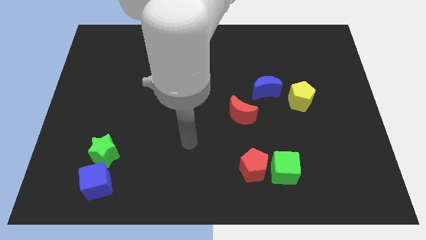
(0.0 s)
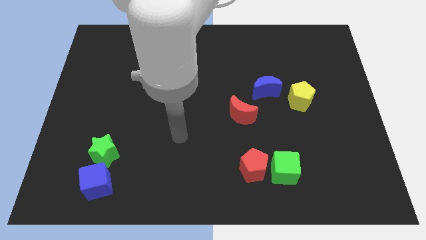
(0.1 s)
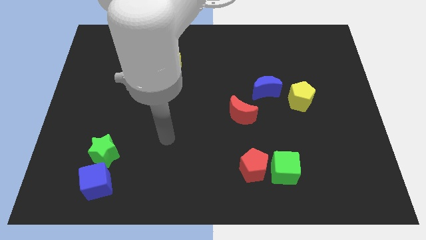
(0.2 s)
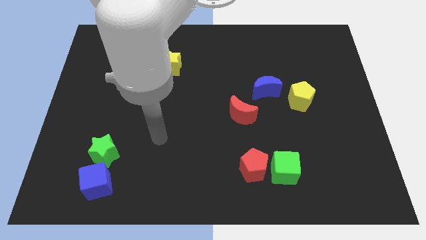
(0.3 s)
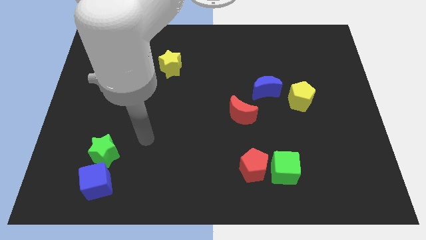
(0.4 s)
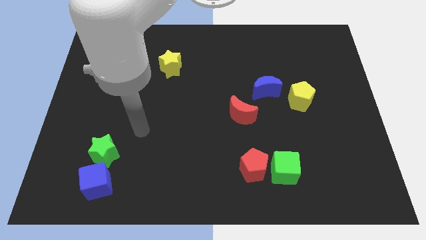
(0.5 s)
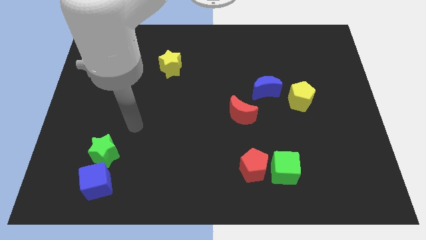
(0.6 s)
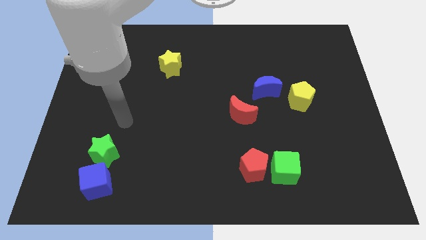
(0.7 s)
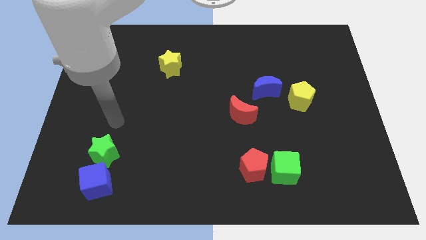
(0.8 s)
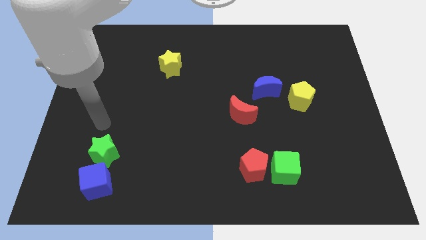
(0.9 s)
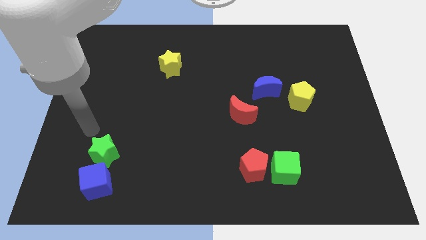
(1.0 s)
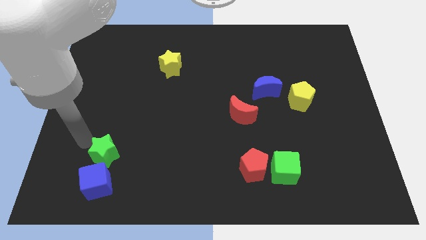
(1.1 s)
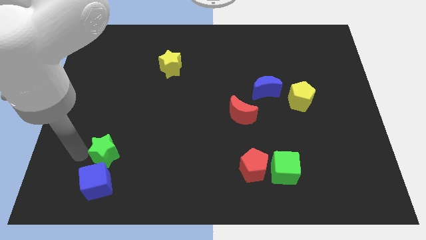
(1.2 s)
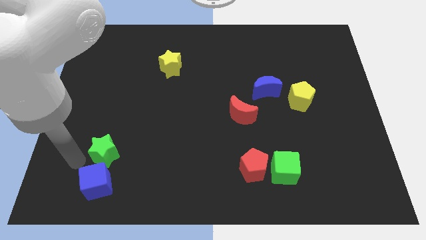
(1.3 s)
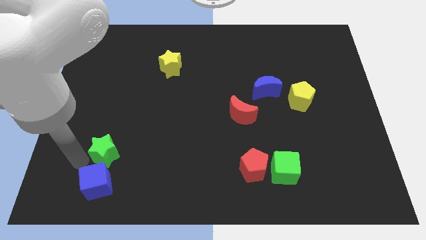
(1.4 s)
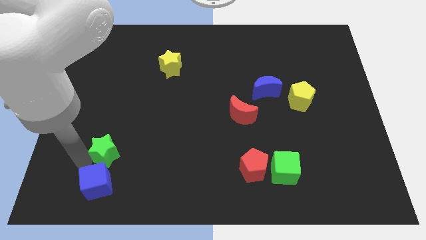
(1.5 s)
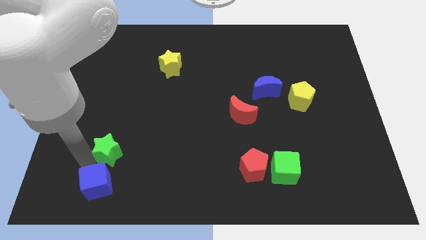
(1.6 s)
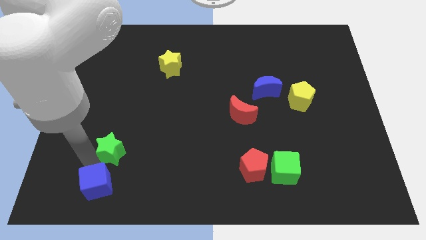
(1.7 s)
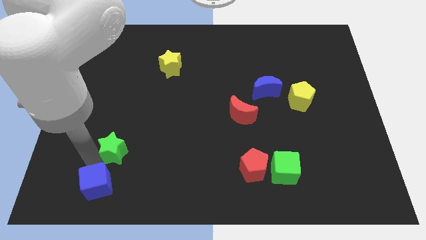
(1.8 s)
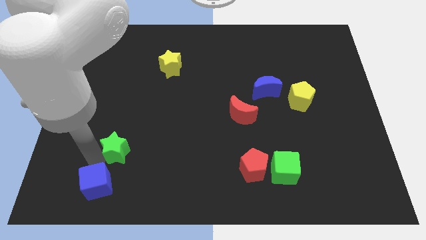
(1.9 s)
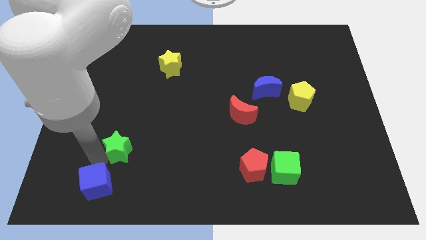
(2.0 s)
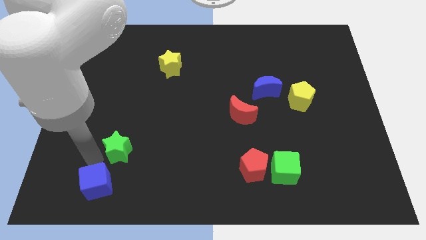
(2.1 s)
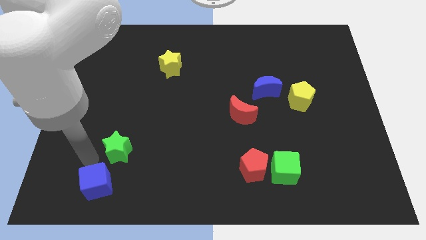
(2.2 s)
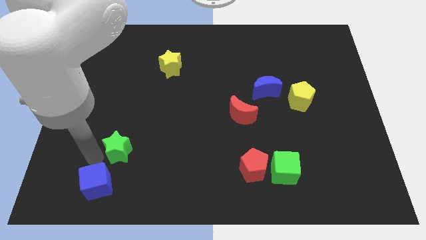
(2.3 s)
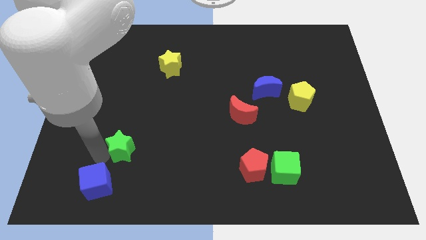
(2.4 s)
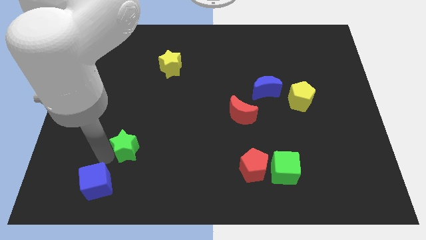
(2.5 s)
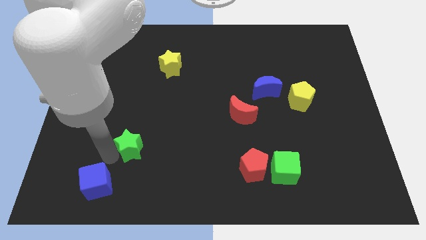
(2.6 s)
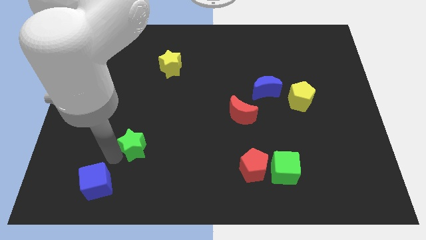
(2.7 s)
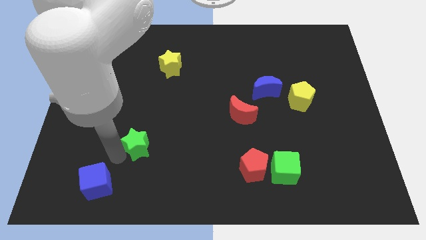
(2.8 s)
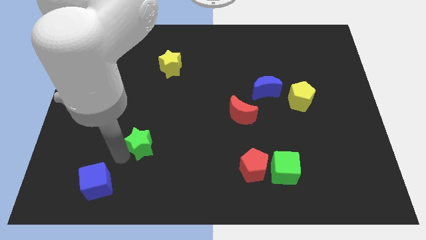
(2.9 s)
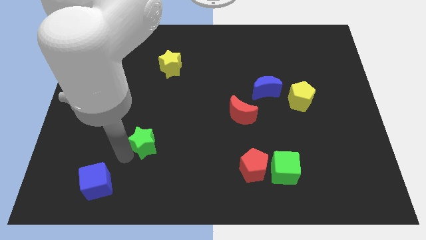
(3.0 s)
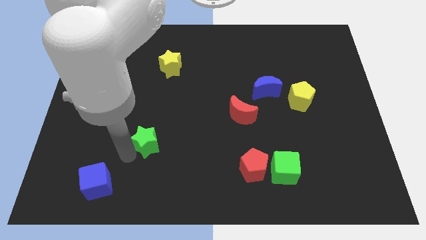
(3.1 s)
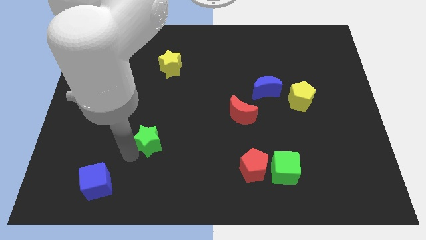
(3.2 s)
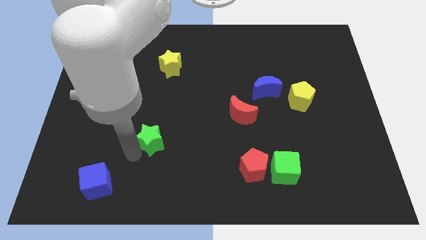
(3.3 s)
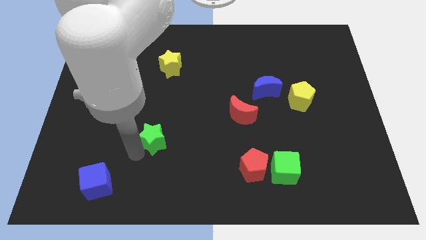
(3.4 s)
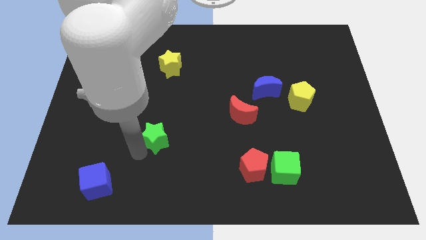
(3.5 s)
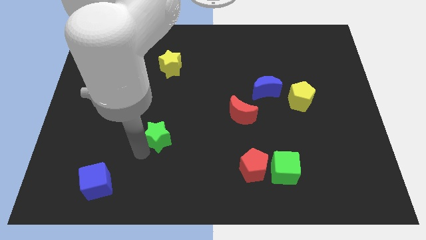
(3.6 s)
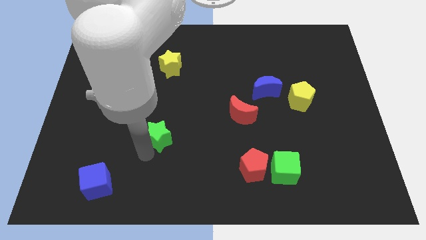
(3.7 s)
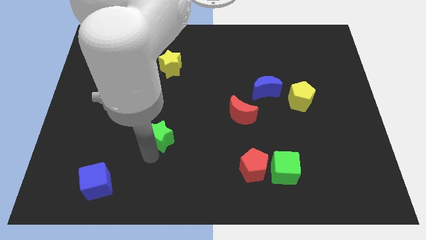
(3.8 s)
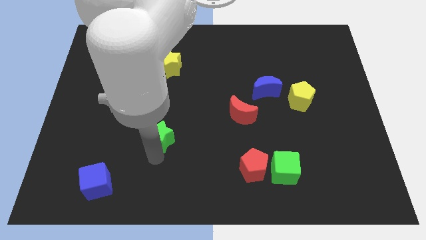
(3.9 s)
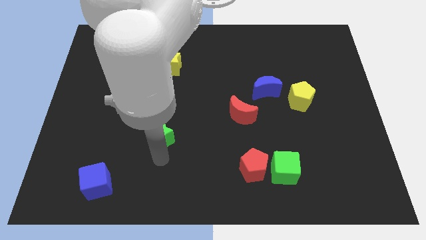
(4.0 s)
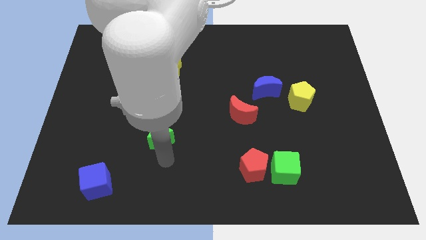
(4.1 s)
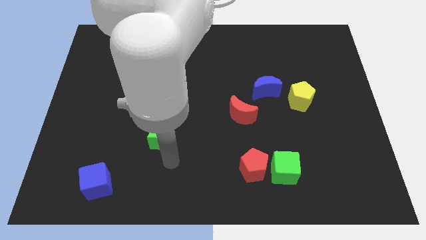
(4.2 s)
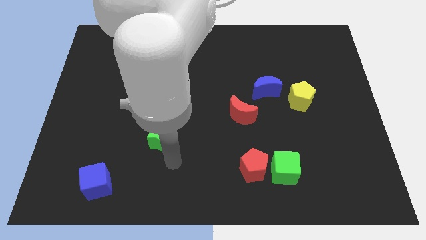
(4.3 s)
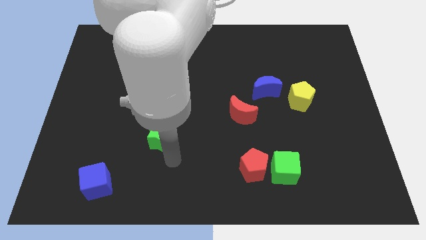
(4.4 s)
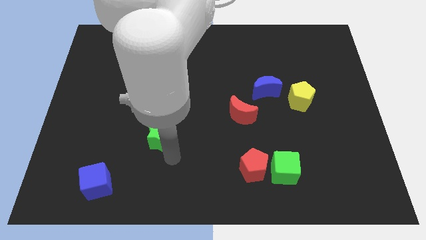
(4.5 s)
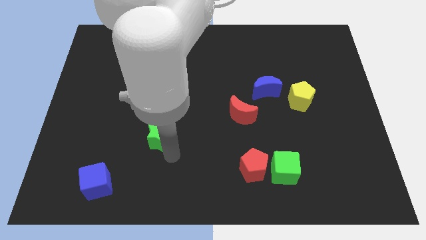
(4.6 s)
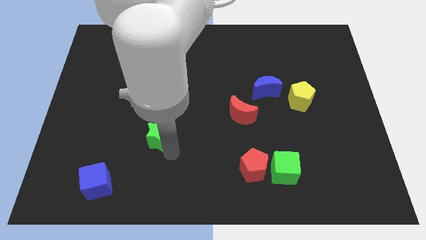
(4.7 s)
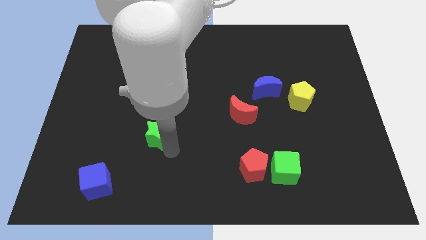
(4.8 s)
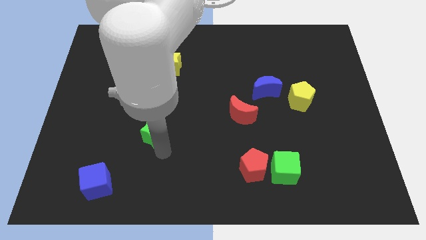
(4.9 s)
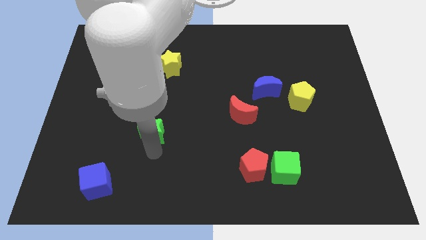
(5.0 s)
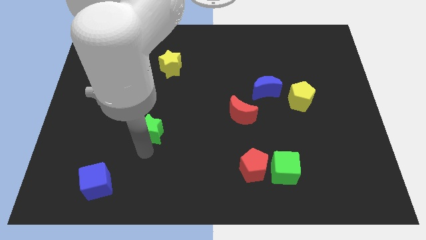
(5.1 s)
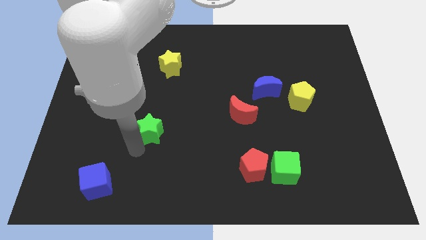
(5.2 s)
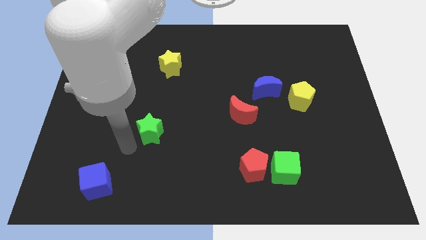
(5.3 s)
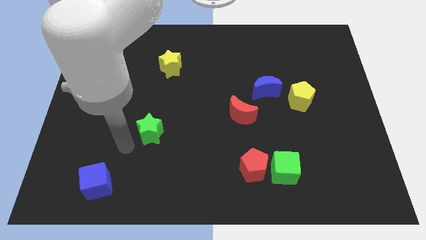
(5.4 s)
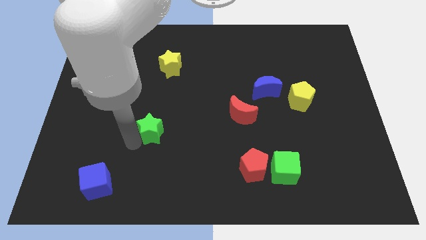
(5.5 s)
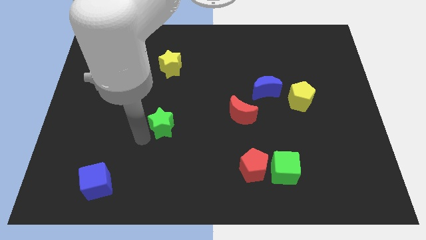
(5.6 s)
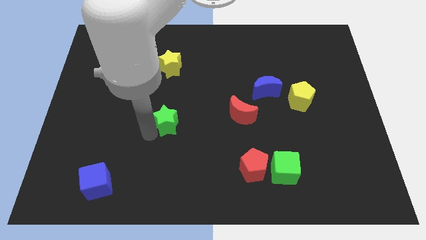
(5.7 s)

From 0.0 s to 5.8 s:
put the green star to the middle of the board
